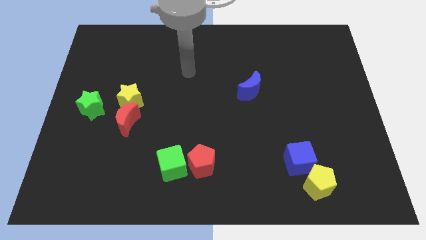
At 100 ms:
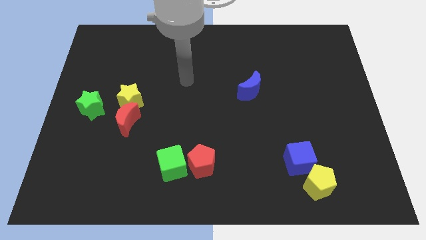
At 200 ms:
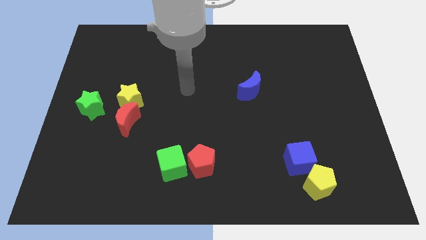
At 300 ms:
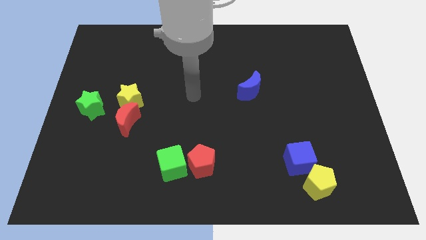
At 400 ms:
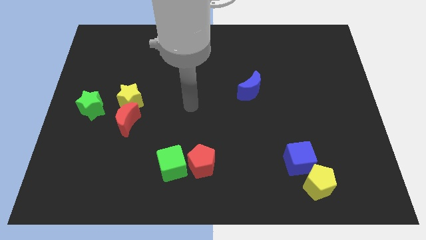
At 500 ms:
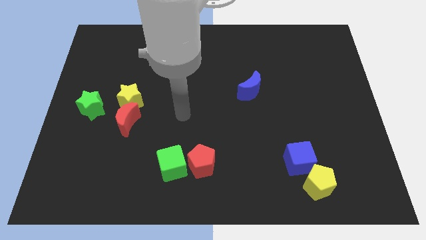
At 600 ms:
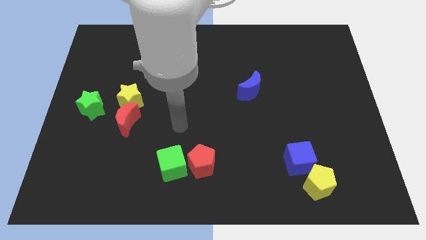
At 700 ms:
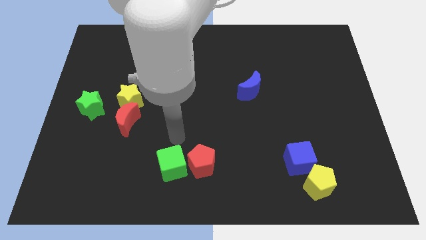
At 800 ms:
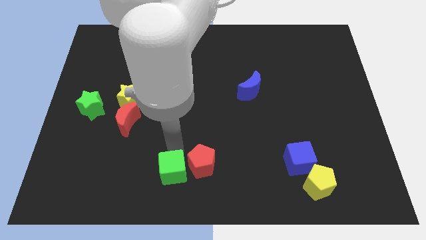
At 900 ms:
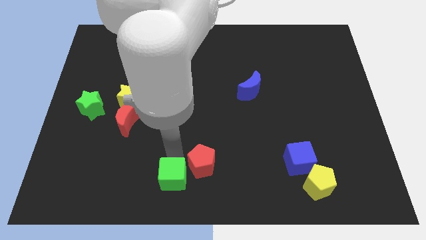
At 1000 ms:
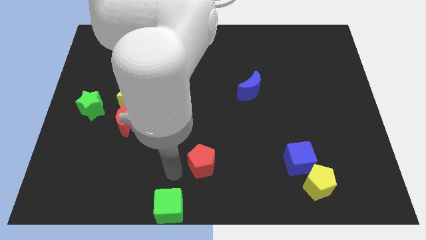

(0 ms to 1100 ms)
separate the red pentagon from the green cube

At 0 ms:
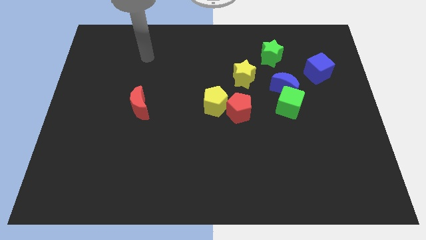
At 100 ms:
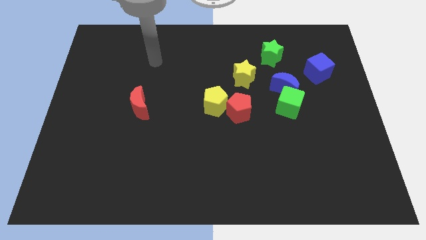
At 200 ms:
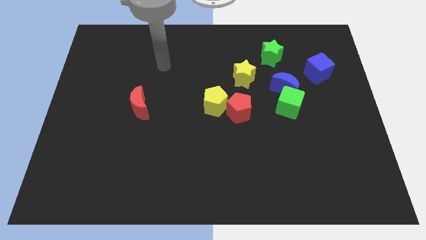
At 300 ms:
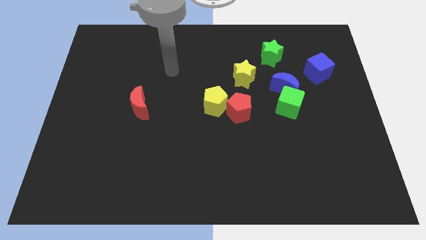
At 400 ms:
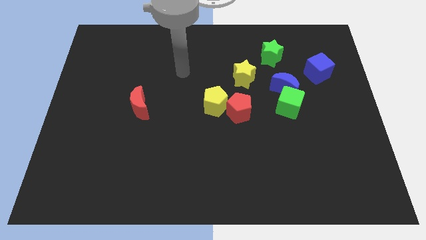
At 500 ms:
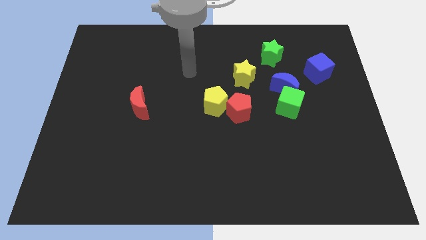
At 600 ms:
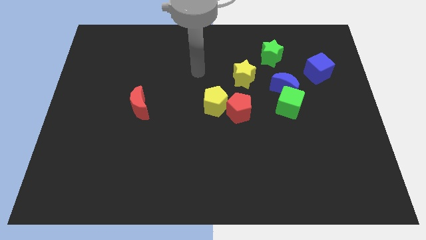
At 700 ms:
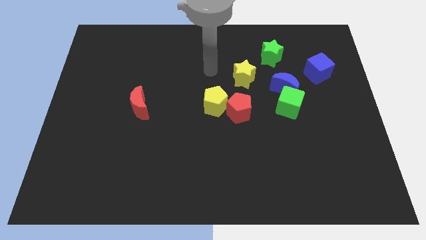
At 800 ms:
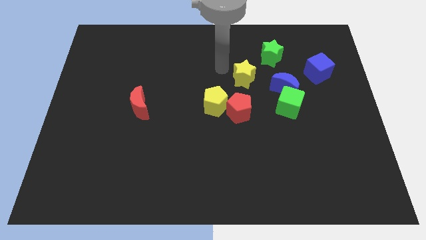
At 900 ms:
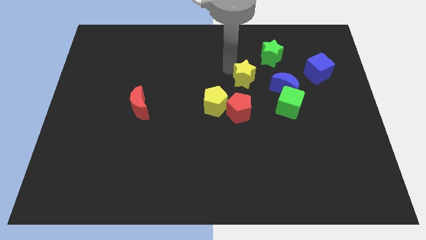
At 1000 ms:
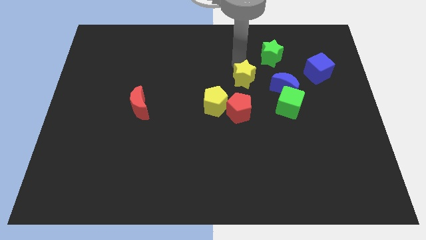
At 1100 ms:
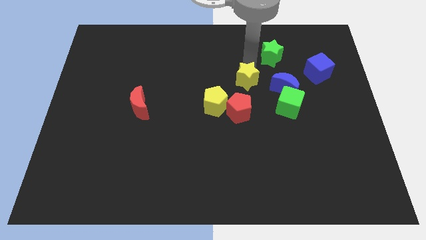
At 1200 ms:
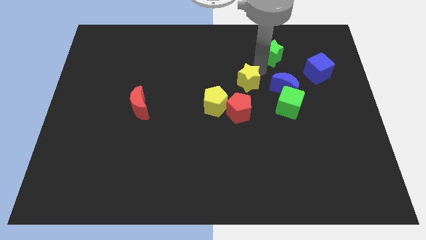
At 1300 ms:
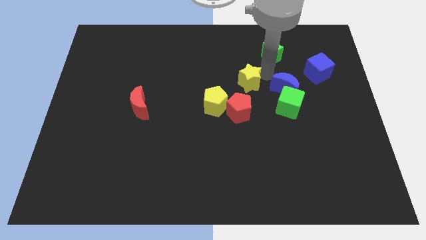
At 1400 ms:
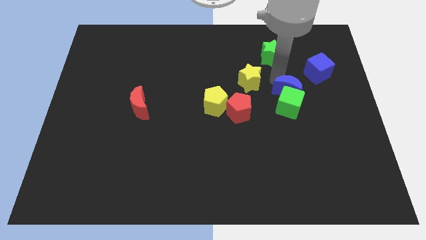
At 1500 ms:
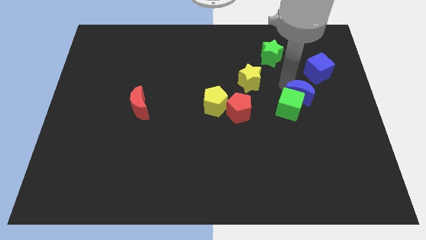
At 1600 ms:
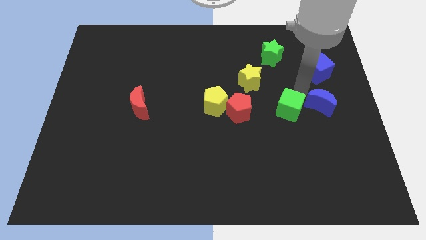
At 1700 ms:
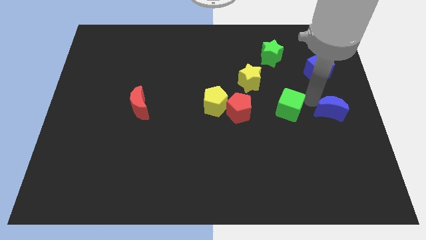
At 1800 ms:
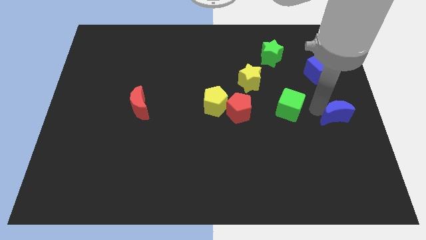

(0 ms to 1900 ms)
move the green cube away from the blue moon

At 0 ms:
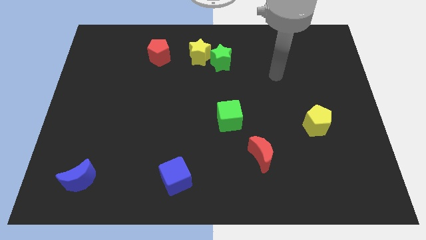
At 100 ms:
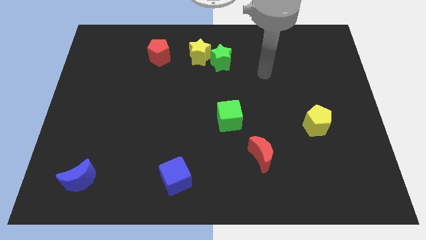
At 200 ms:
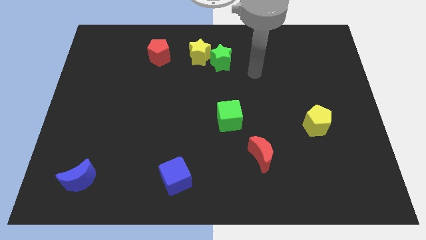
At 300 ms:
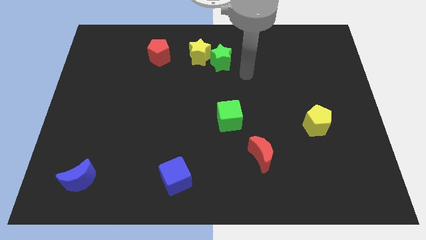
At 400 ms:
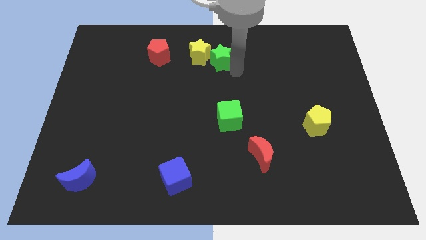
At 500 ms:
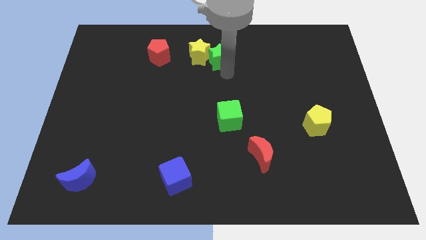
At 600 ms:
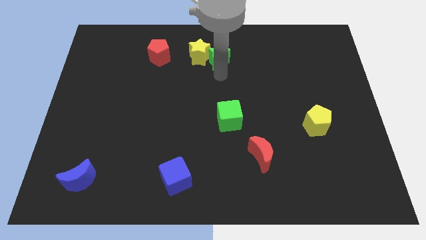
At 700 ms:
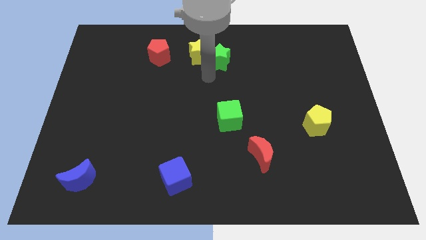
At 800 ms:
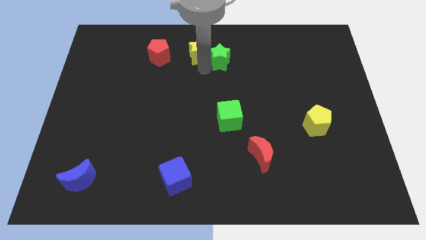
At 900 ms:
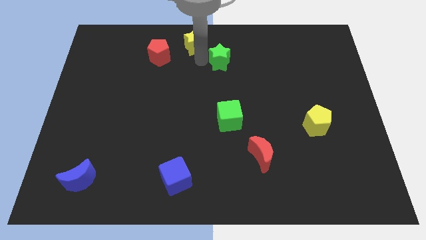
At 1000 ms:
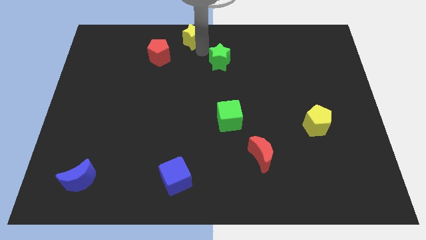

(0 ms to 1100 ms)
separate the green star from the yellow star

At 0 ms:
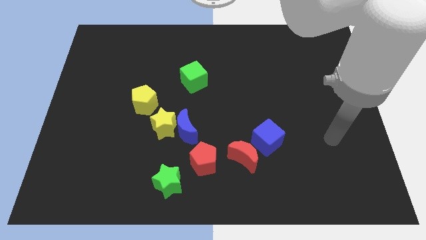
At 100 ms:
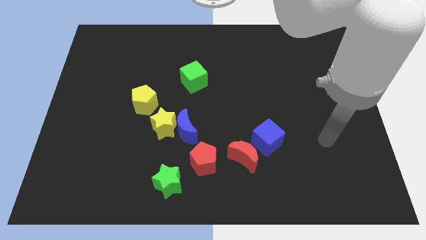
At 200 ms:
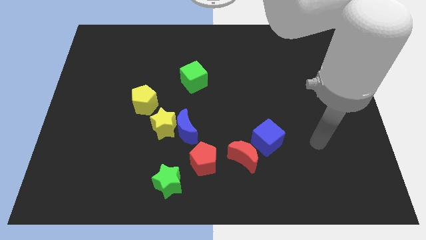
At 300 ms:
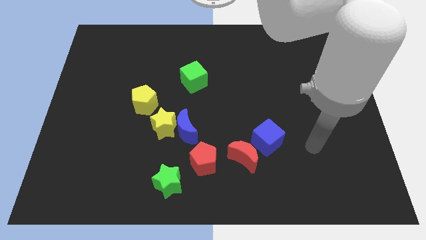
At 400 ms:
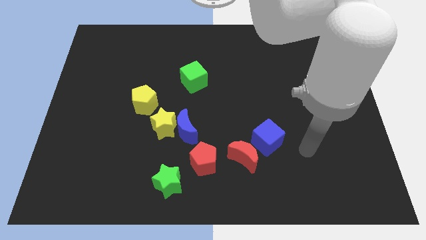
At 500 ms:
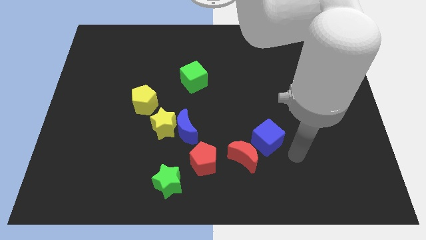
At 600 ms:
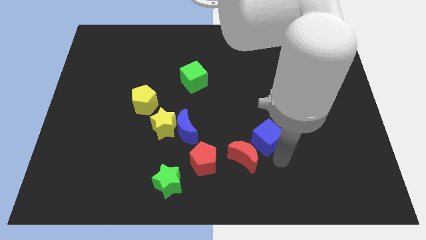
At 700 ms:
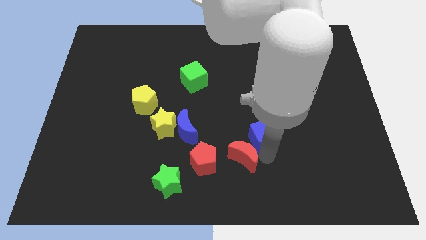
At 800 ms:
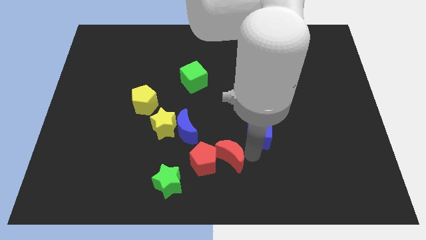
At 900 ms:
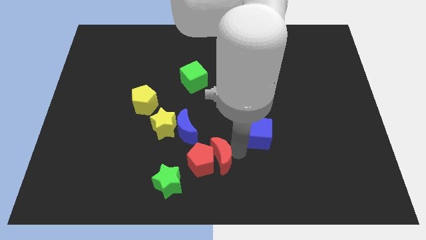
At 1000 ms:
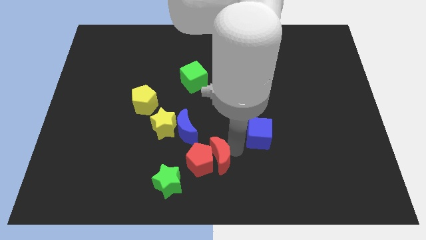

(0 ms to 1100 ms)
separate the blue cube from the red moon

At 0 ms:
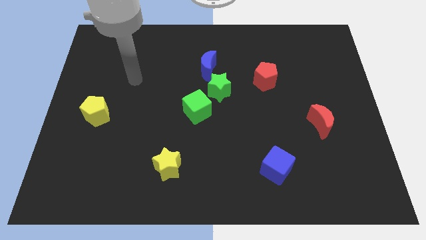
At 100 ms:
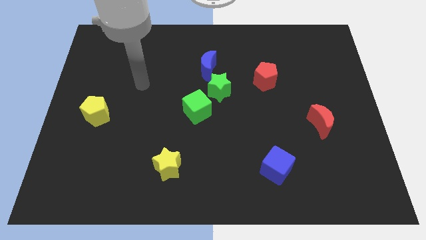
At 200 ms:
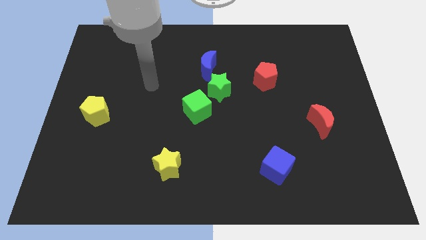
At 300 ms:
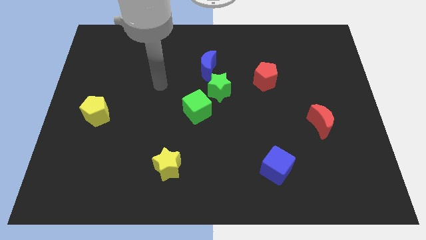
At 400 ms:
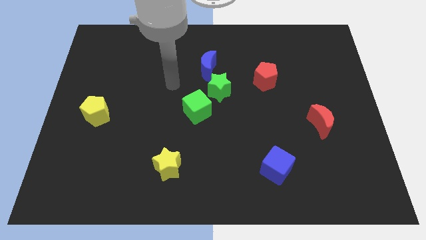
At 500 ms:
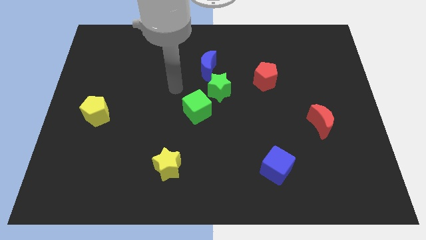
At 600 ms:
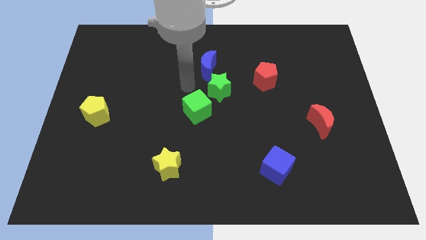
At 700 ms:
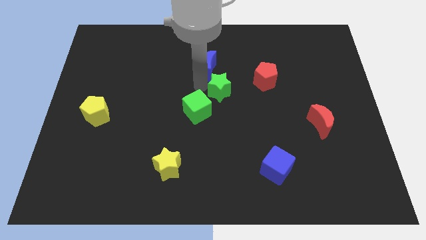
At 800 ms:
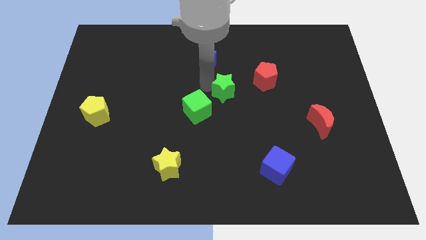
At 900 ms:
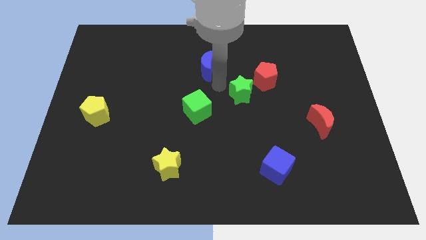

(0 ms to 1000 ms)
move the blue moon away from the green star

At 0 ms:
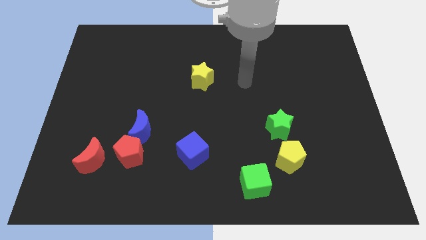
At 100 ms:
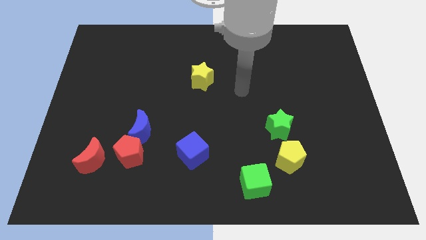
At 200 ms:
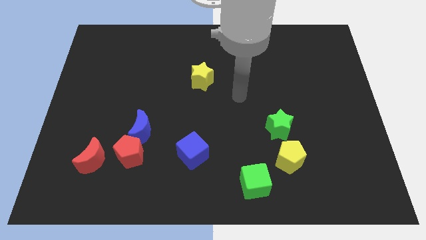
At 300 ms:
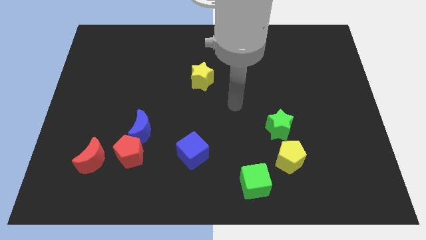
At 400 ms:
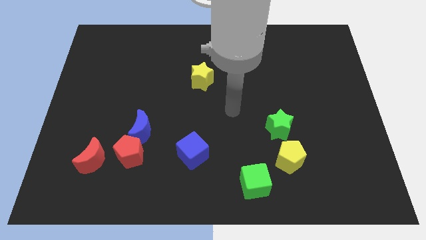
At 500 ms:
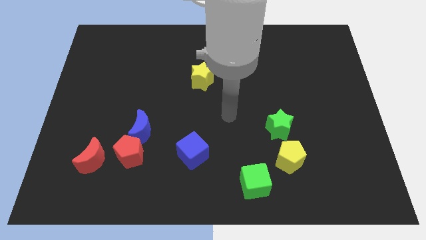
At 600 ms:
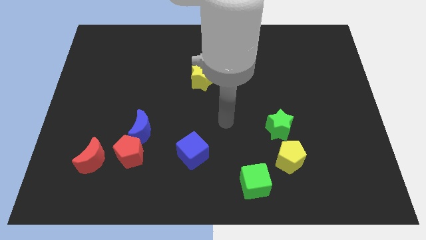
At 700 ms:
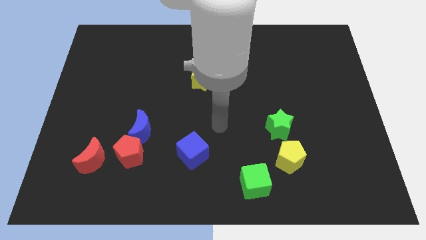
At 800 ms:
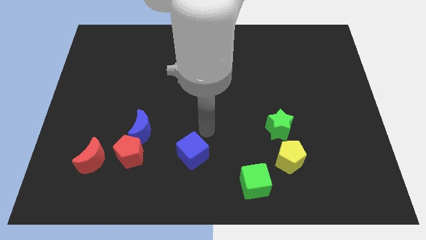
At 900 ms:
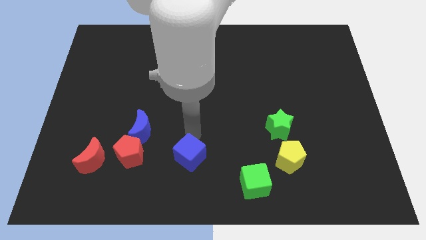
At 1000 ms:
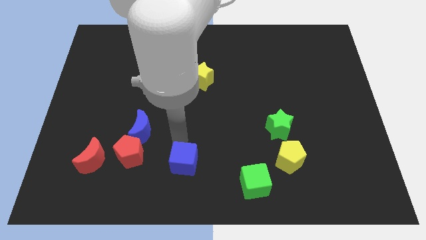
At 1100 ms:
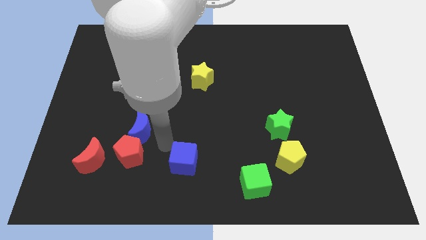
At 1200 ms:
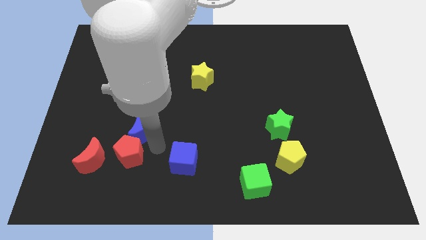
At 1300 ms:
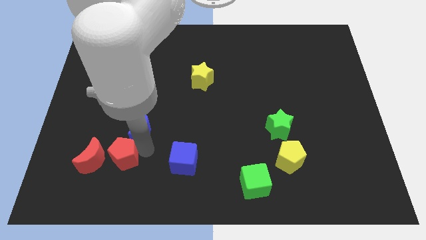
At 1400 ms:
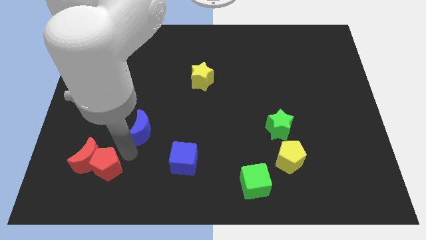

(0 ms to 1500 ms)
separate the blue moon from the red pentagon

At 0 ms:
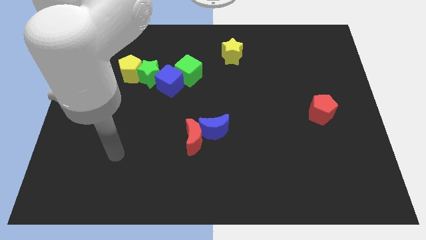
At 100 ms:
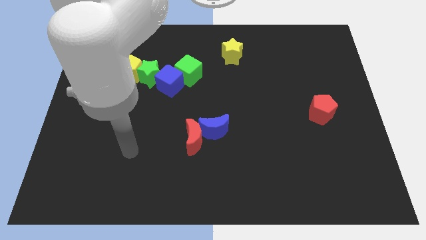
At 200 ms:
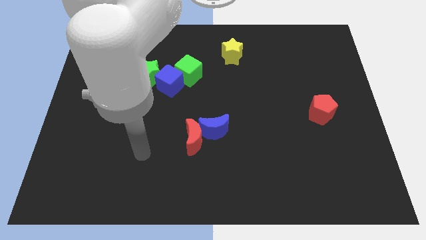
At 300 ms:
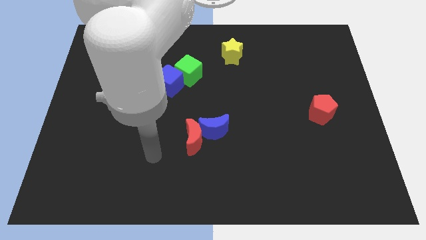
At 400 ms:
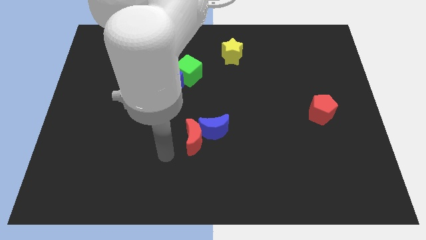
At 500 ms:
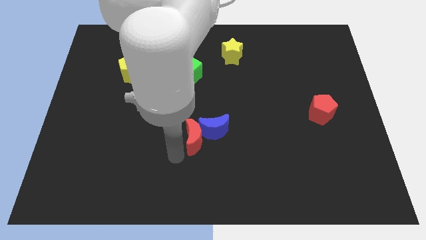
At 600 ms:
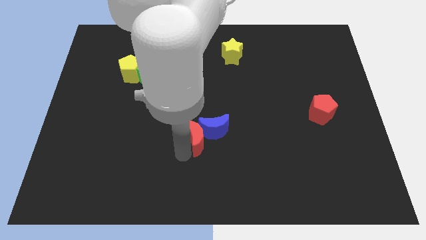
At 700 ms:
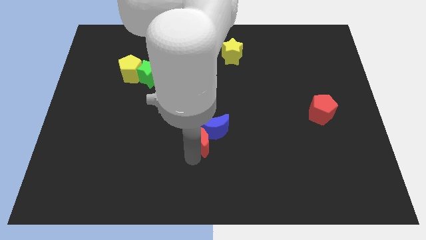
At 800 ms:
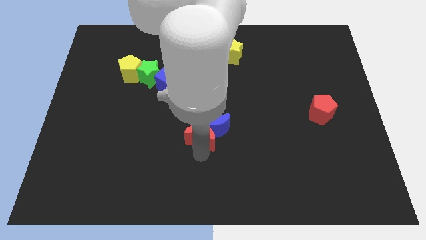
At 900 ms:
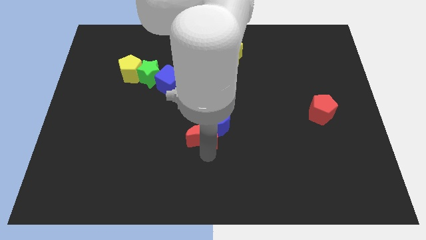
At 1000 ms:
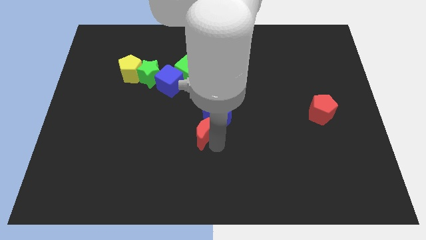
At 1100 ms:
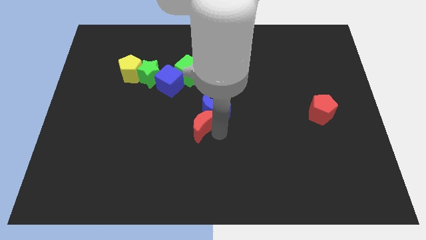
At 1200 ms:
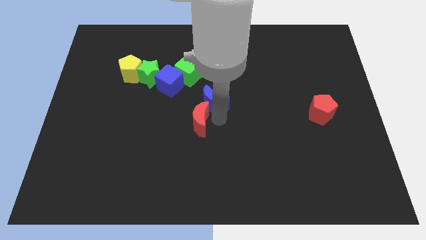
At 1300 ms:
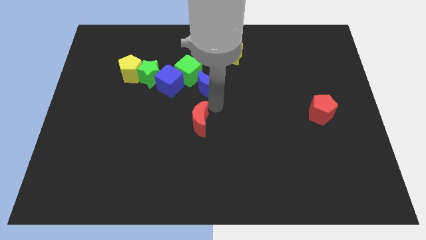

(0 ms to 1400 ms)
separate the red moon from the blue moon

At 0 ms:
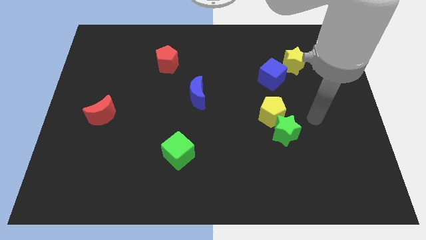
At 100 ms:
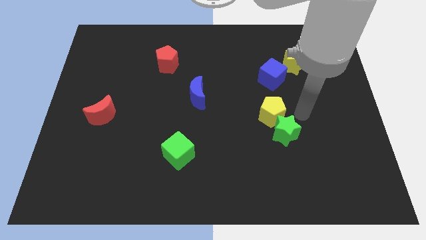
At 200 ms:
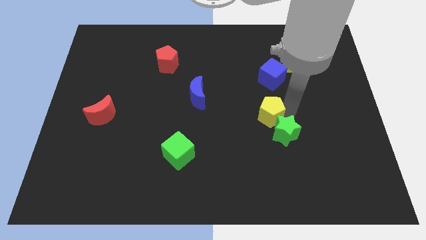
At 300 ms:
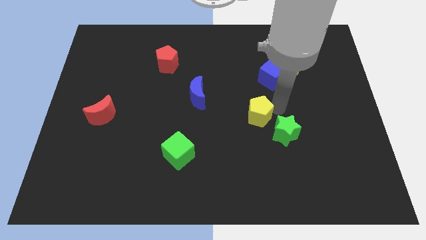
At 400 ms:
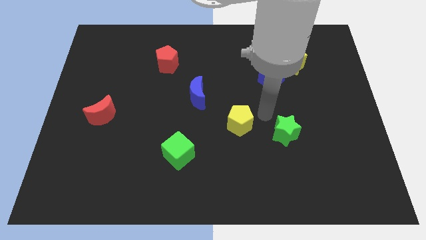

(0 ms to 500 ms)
pull the green star apart from the yellow pentagon
